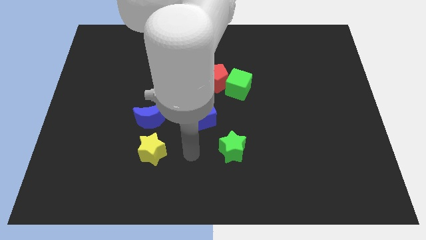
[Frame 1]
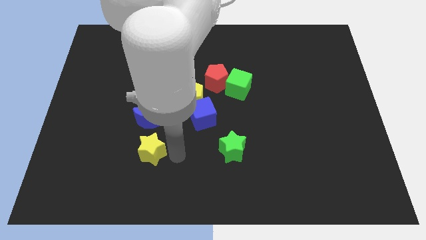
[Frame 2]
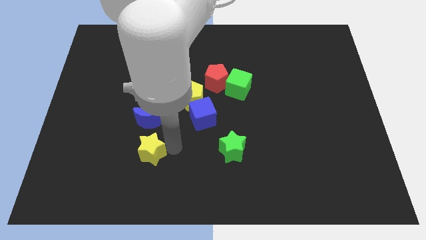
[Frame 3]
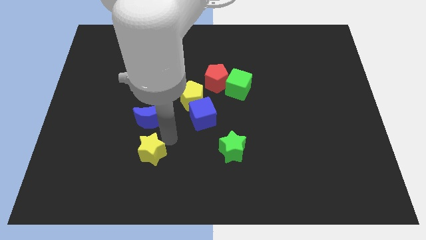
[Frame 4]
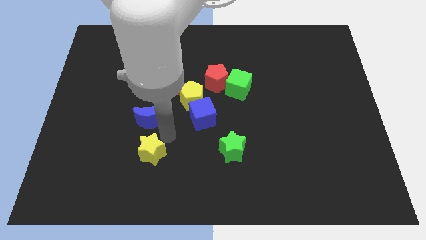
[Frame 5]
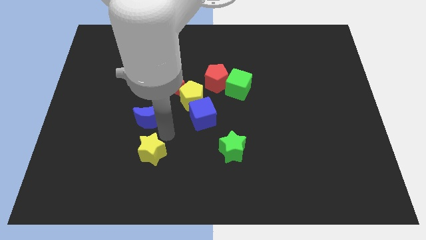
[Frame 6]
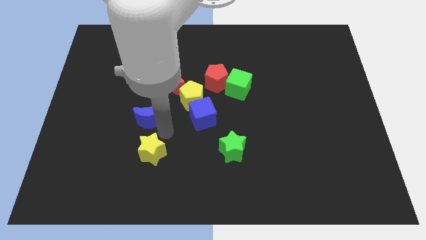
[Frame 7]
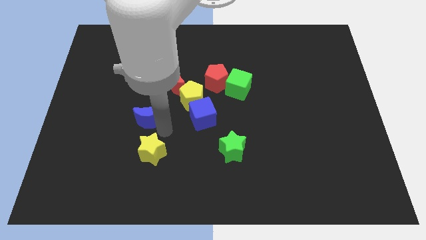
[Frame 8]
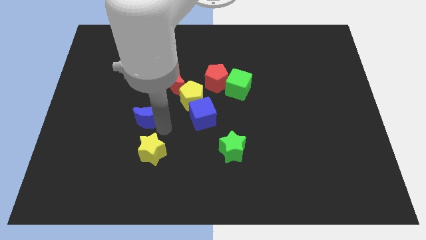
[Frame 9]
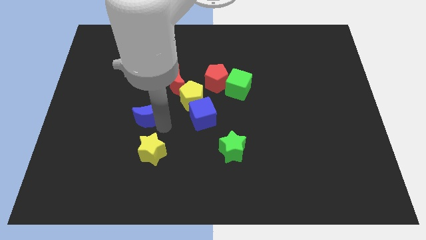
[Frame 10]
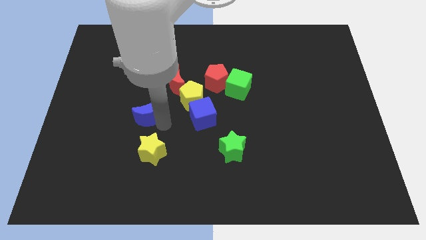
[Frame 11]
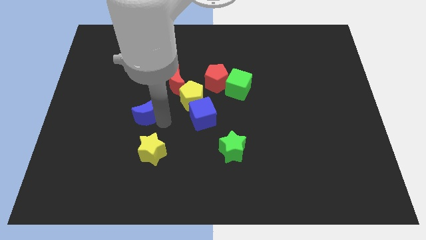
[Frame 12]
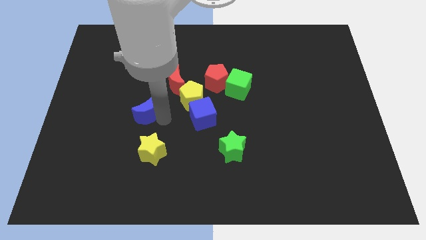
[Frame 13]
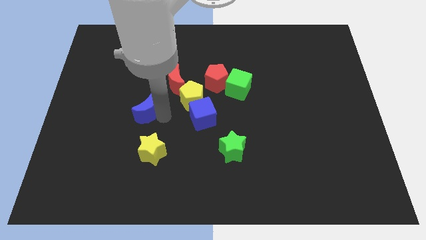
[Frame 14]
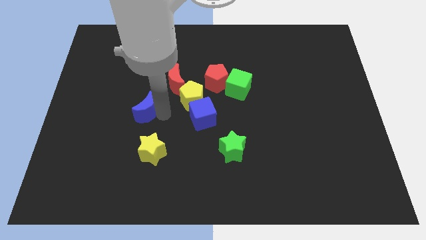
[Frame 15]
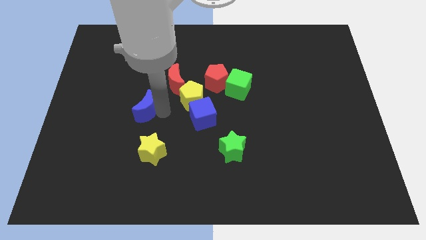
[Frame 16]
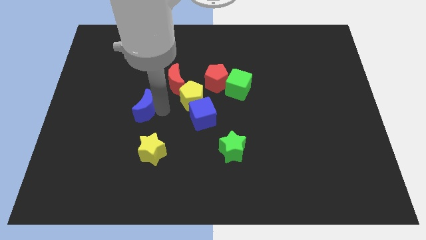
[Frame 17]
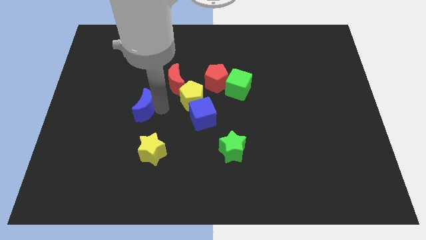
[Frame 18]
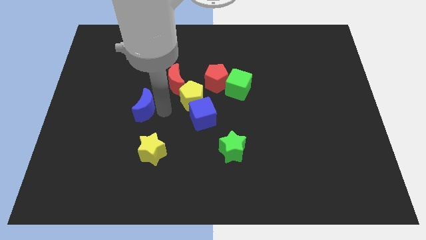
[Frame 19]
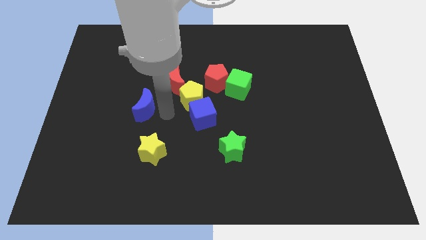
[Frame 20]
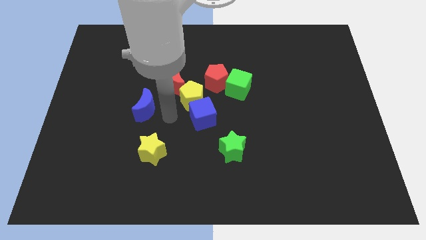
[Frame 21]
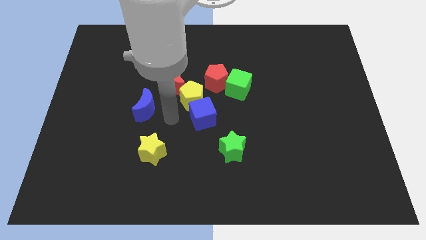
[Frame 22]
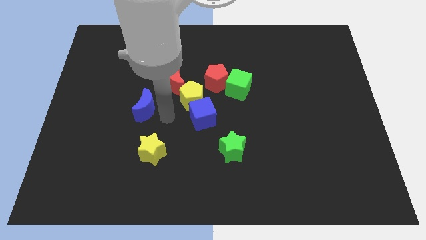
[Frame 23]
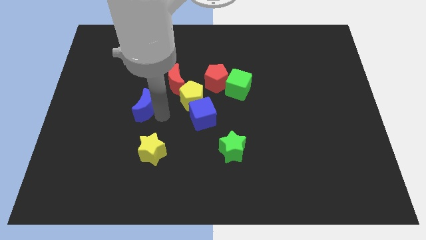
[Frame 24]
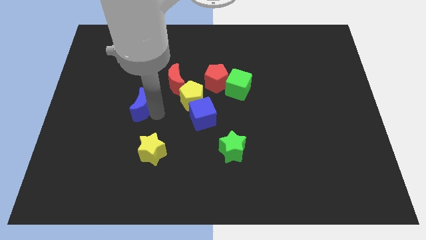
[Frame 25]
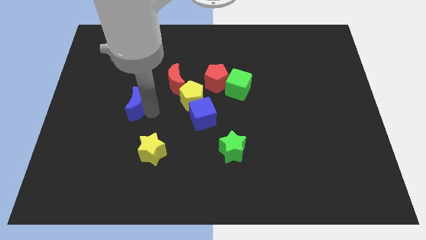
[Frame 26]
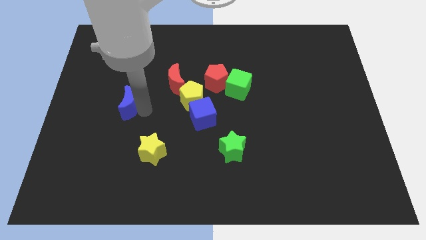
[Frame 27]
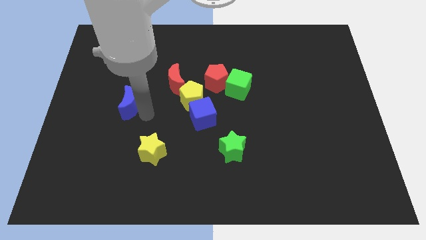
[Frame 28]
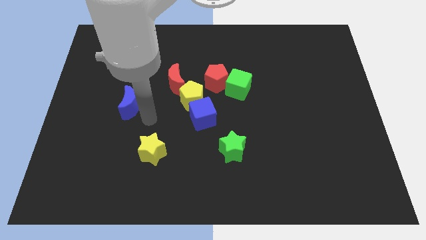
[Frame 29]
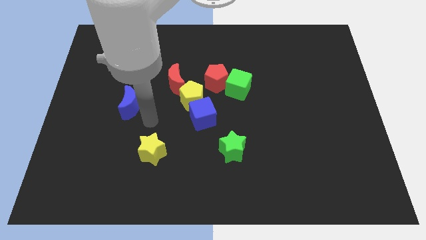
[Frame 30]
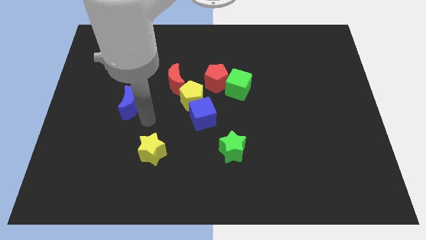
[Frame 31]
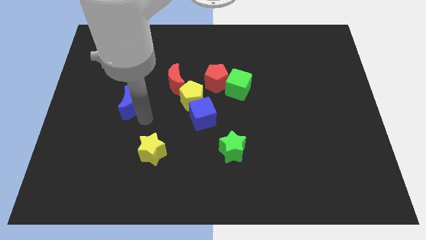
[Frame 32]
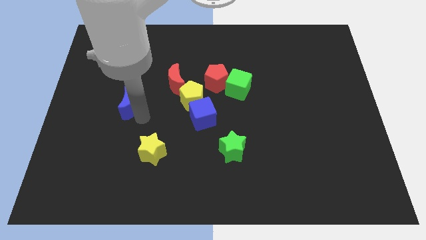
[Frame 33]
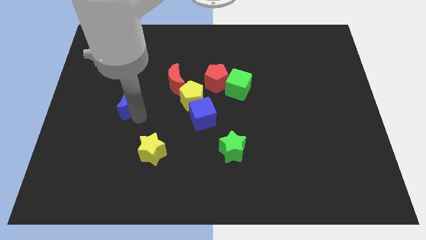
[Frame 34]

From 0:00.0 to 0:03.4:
slightly push the blue moon diagonally upwards and to the left

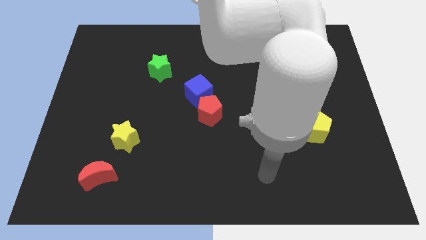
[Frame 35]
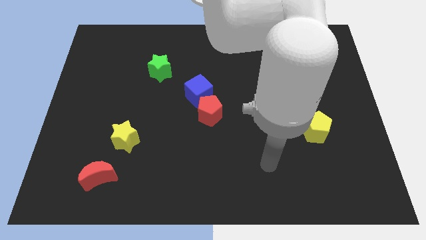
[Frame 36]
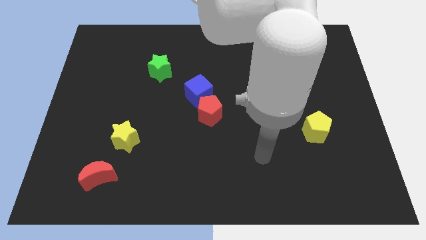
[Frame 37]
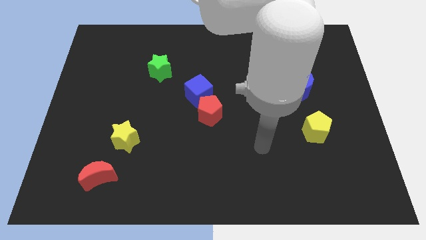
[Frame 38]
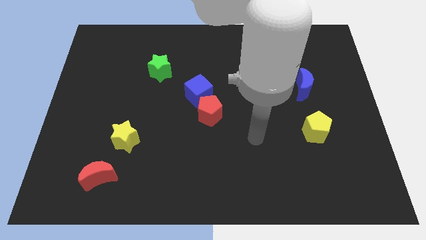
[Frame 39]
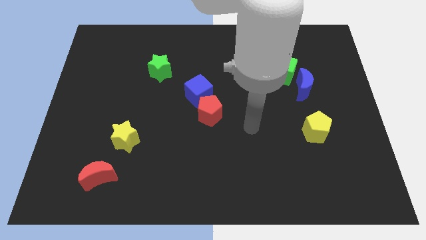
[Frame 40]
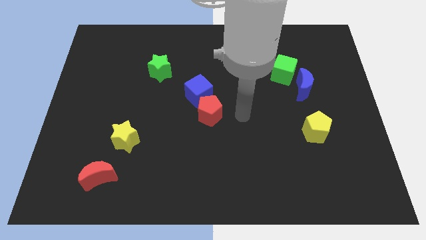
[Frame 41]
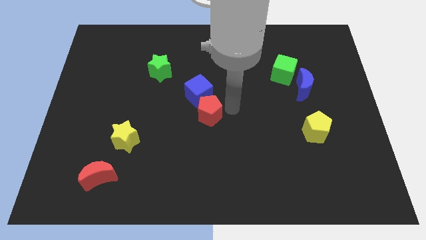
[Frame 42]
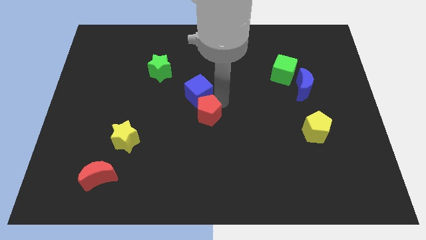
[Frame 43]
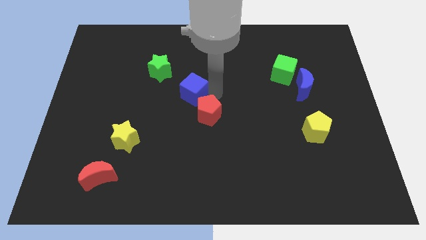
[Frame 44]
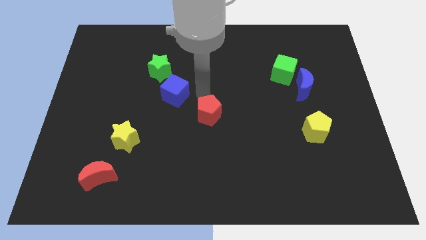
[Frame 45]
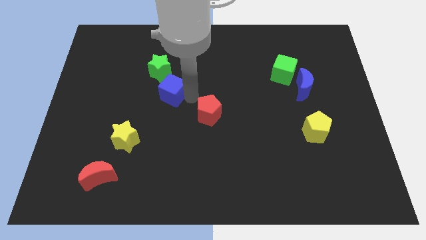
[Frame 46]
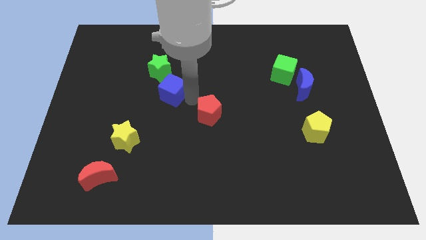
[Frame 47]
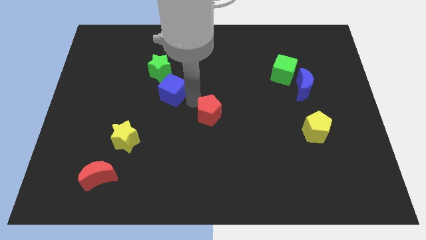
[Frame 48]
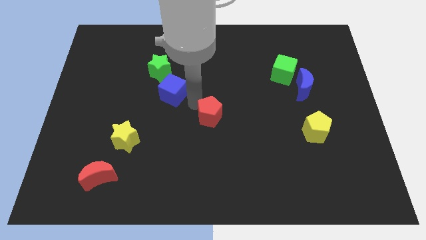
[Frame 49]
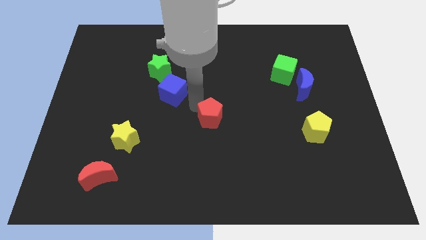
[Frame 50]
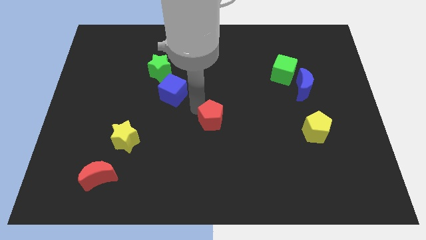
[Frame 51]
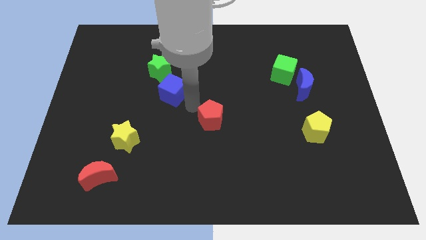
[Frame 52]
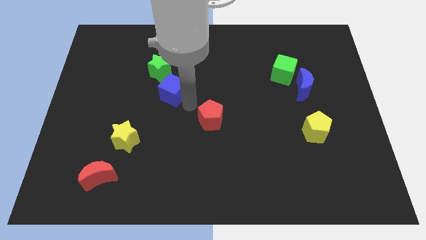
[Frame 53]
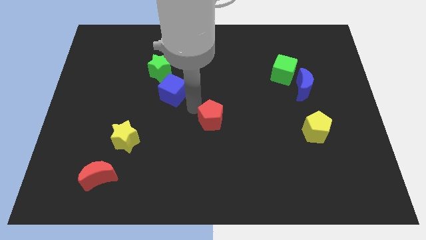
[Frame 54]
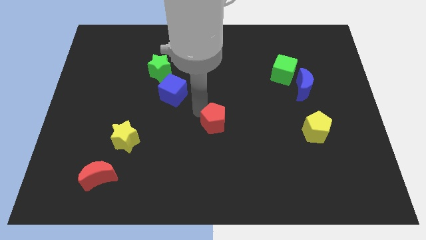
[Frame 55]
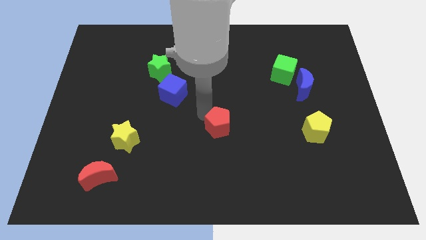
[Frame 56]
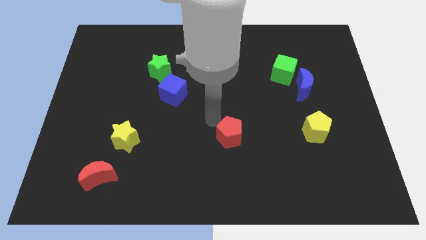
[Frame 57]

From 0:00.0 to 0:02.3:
push the red pentagon a little bit downwards and to the right diagonally

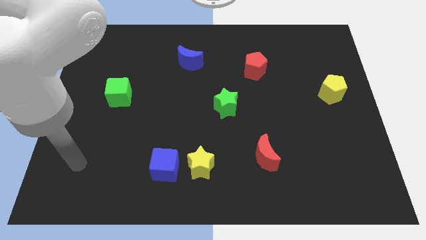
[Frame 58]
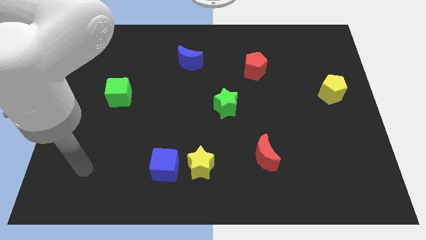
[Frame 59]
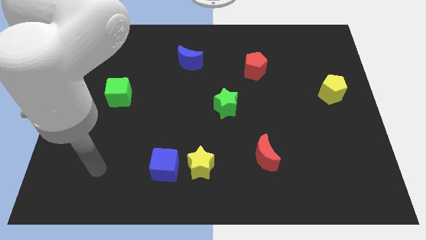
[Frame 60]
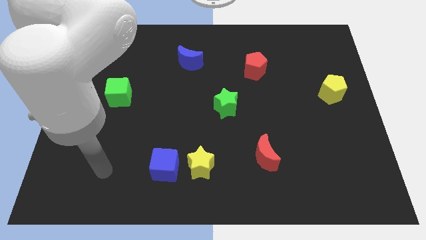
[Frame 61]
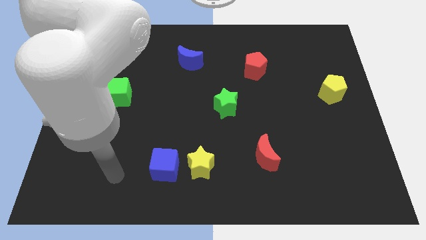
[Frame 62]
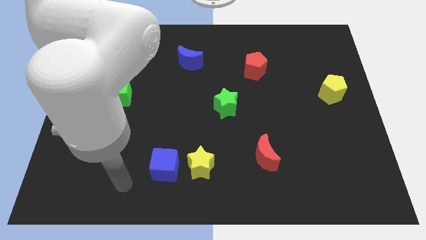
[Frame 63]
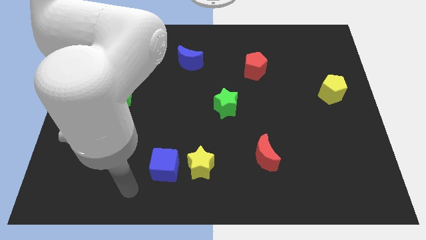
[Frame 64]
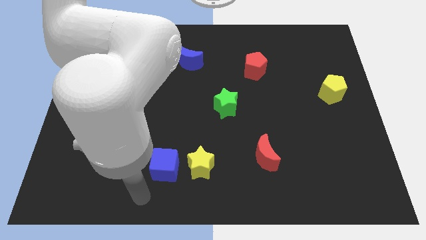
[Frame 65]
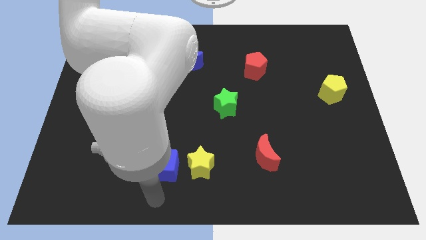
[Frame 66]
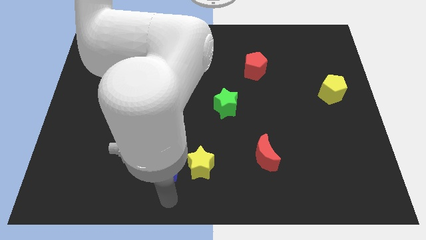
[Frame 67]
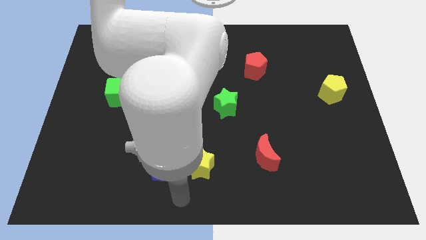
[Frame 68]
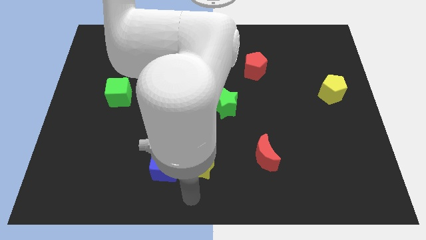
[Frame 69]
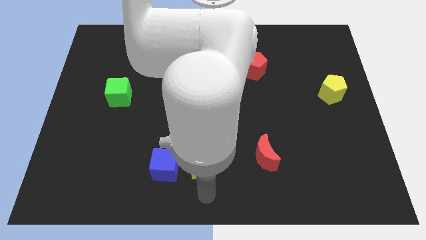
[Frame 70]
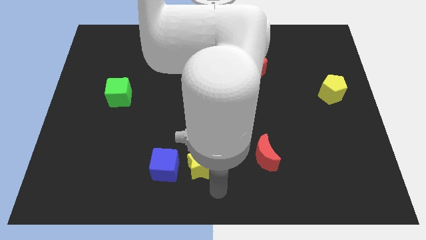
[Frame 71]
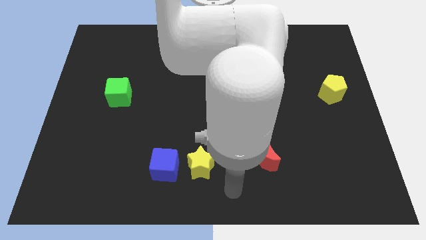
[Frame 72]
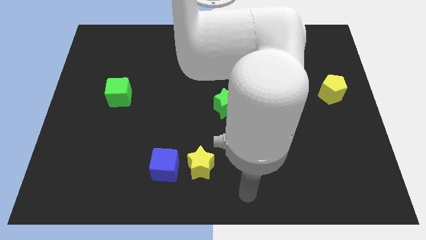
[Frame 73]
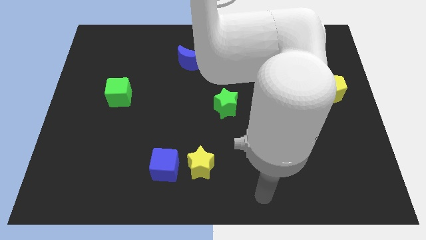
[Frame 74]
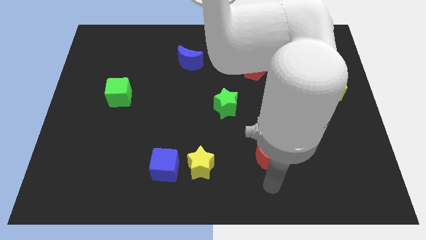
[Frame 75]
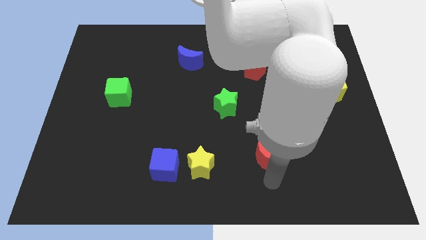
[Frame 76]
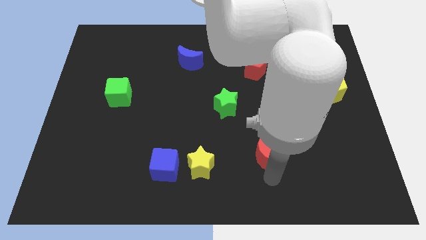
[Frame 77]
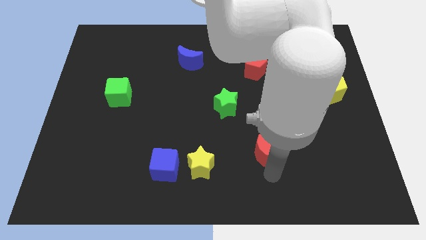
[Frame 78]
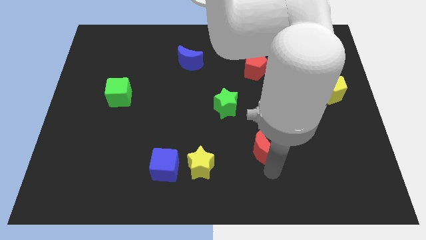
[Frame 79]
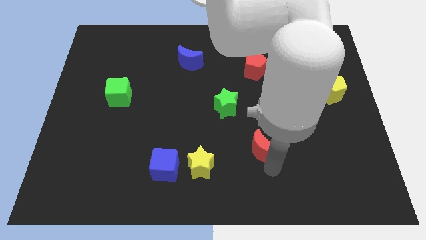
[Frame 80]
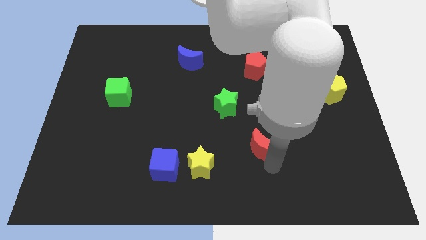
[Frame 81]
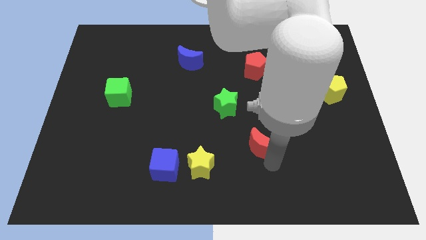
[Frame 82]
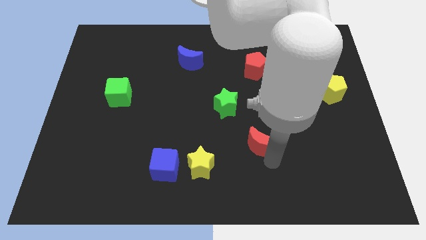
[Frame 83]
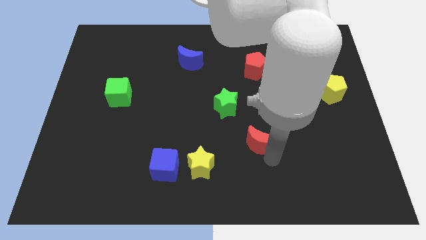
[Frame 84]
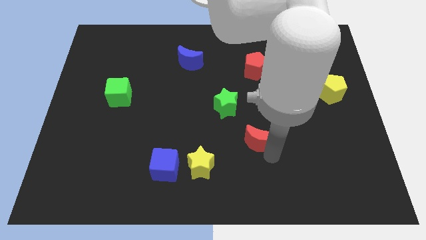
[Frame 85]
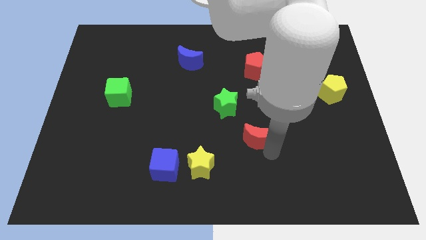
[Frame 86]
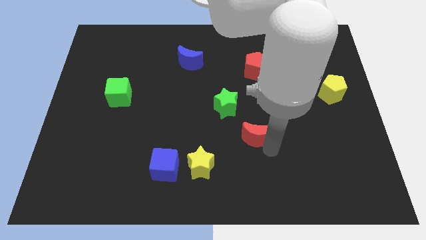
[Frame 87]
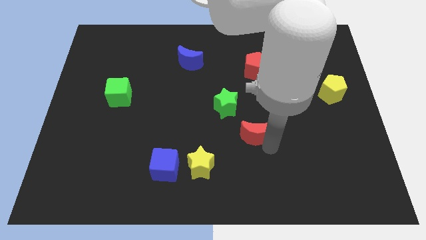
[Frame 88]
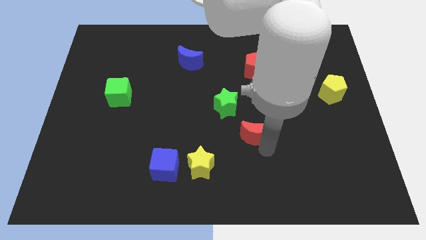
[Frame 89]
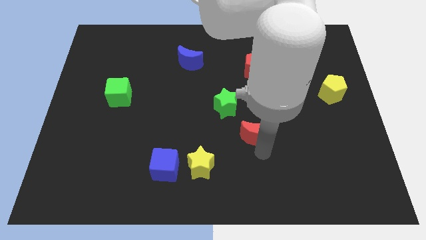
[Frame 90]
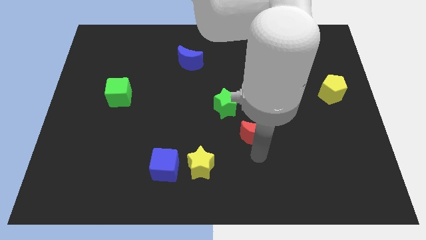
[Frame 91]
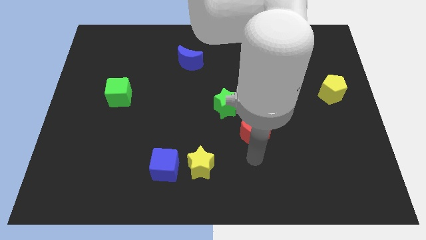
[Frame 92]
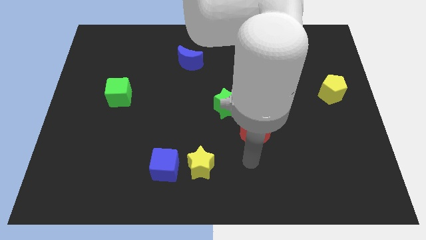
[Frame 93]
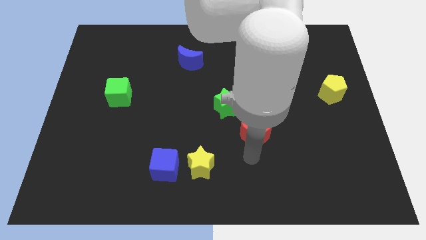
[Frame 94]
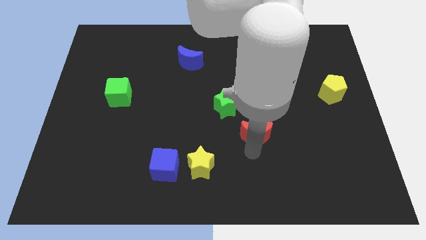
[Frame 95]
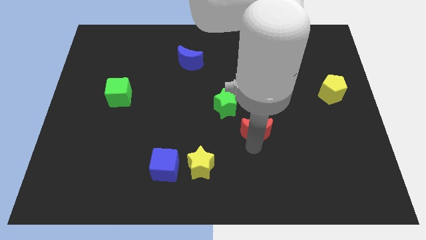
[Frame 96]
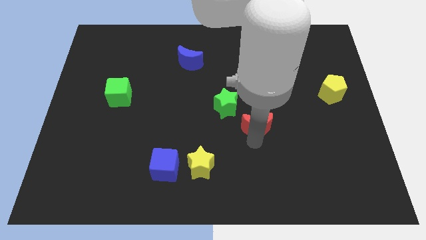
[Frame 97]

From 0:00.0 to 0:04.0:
slide the red moon up somewhat
